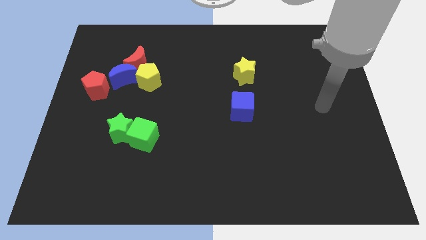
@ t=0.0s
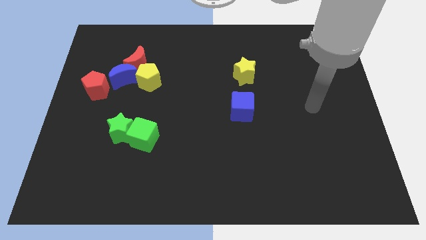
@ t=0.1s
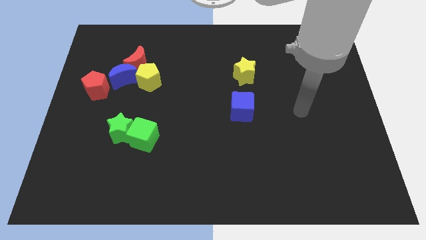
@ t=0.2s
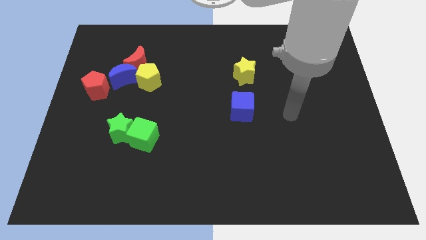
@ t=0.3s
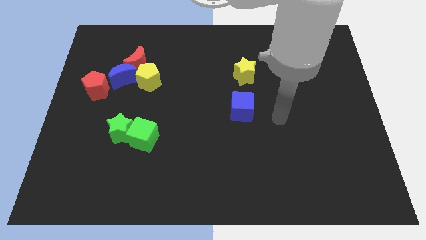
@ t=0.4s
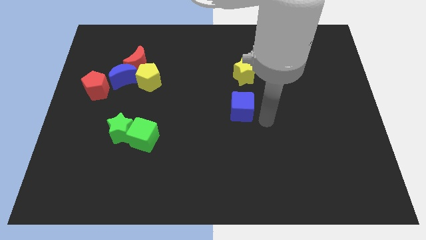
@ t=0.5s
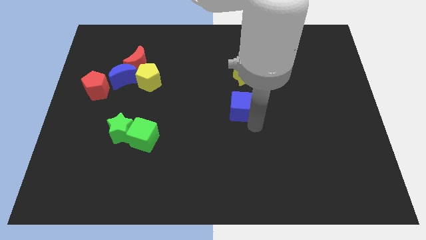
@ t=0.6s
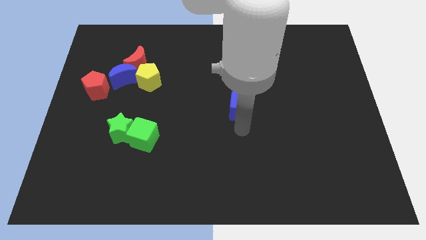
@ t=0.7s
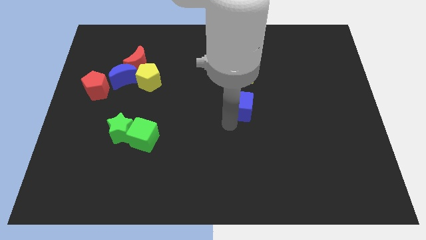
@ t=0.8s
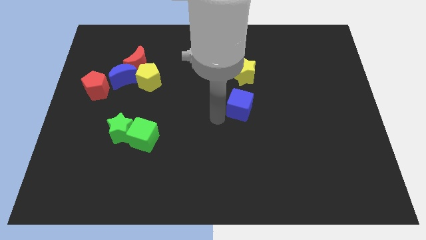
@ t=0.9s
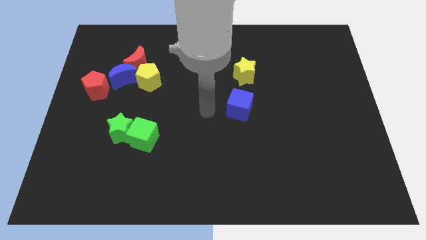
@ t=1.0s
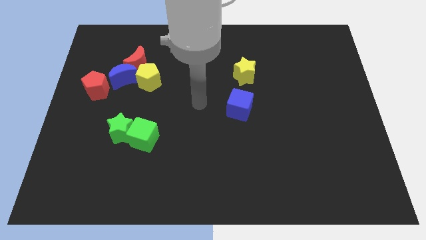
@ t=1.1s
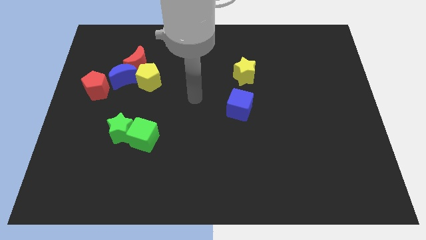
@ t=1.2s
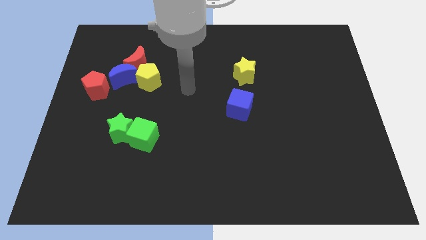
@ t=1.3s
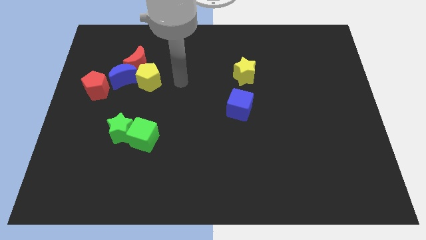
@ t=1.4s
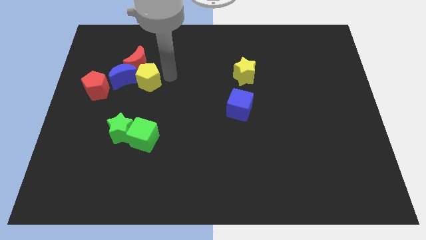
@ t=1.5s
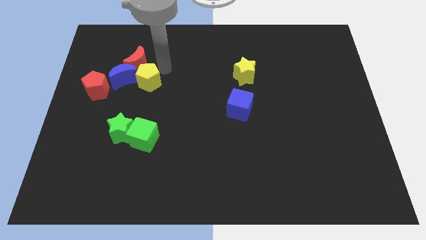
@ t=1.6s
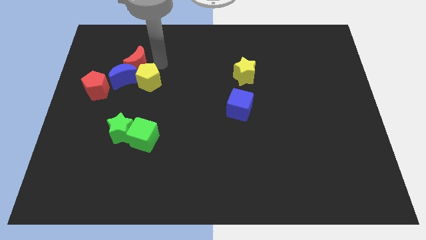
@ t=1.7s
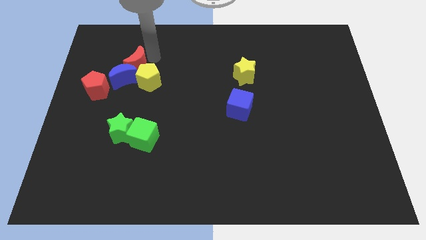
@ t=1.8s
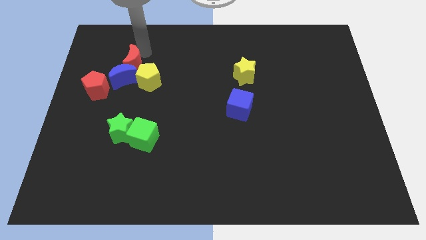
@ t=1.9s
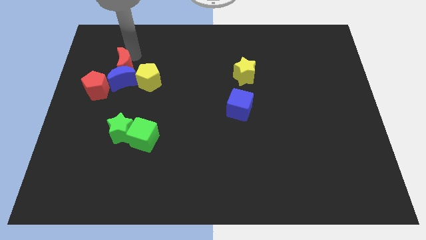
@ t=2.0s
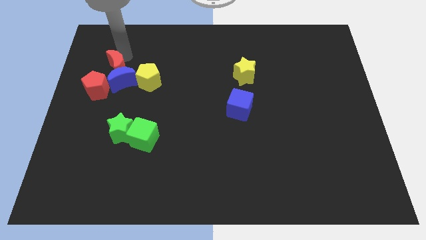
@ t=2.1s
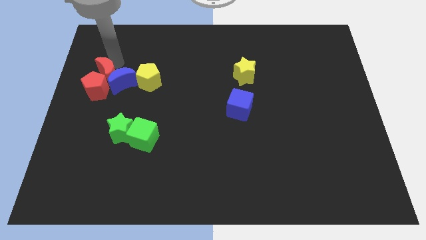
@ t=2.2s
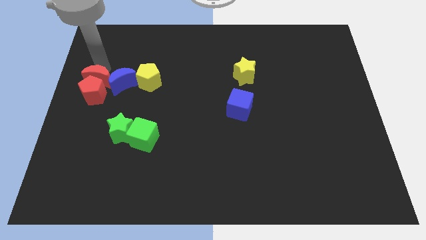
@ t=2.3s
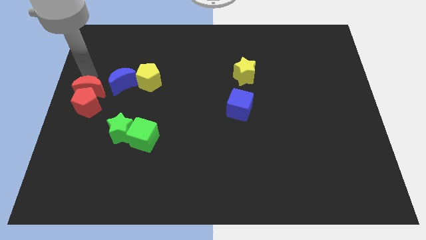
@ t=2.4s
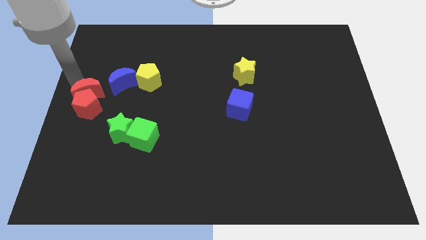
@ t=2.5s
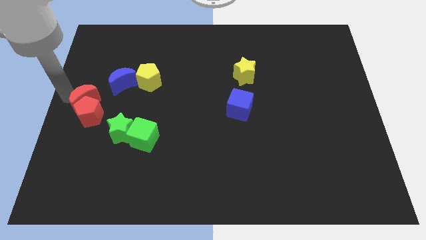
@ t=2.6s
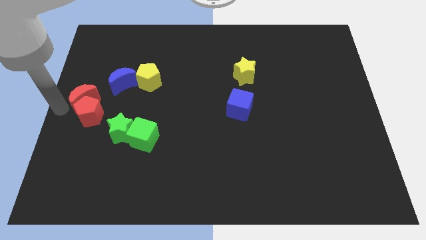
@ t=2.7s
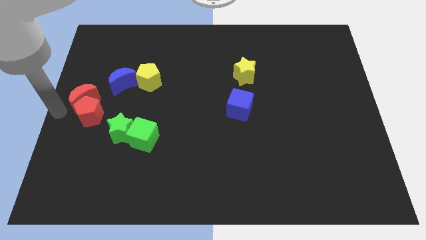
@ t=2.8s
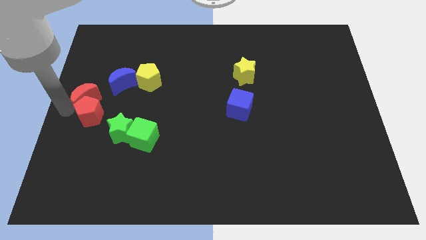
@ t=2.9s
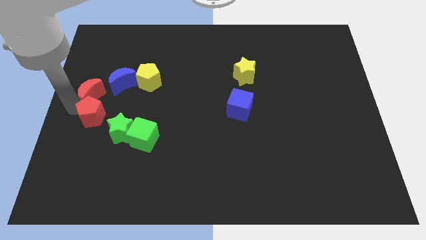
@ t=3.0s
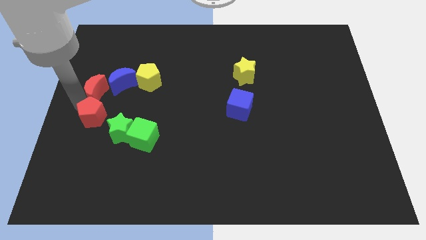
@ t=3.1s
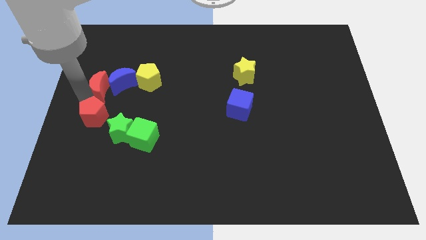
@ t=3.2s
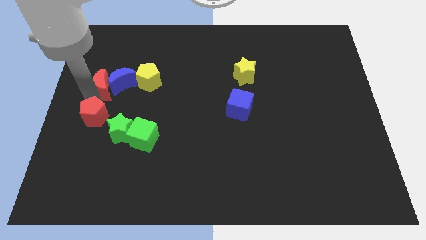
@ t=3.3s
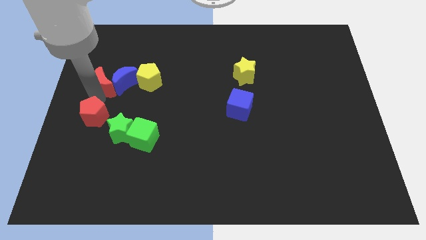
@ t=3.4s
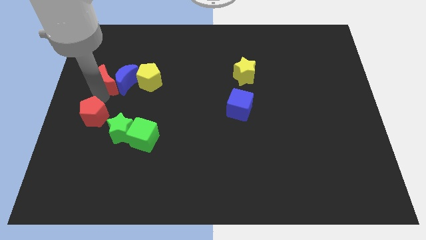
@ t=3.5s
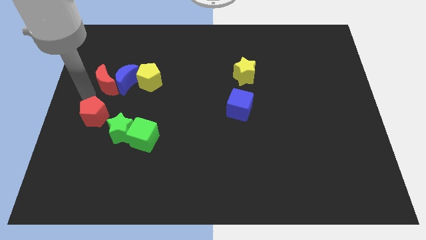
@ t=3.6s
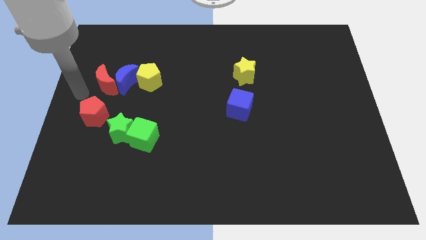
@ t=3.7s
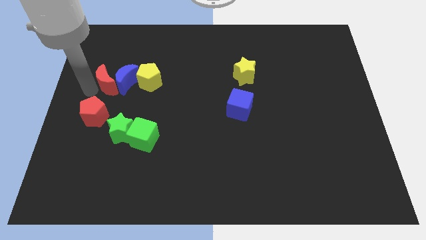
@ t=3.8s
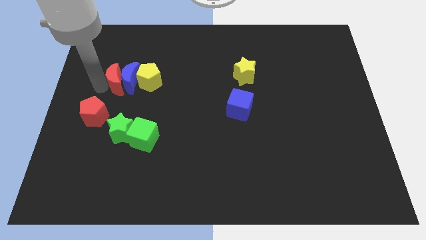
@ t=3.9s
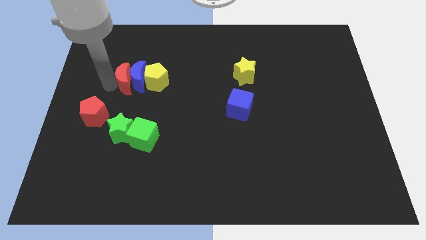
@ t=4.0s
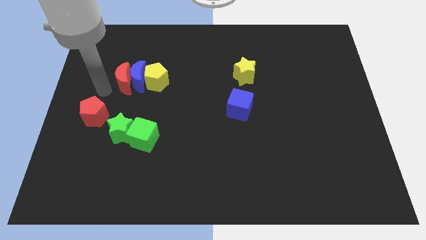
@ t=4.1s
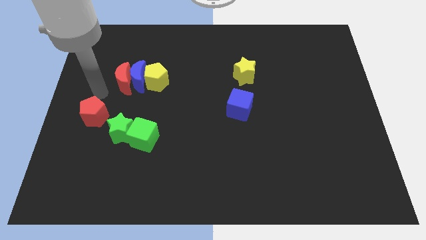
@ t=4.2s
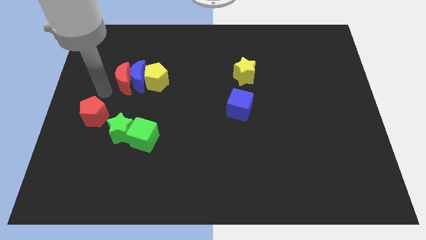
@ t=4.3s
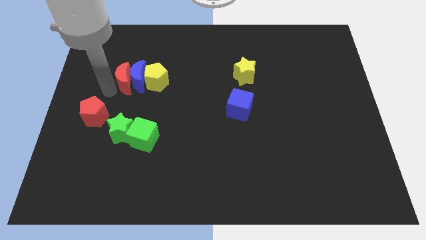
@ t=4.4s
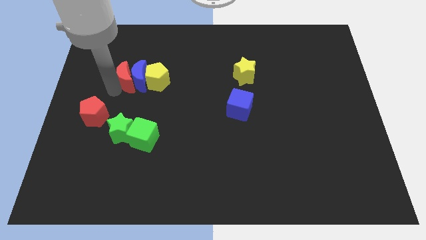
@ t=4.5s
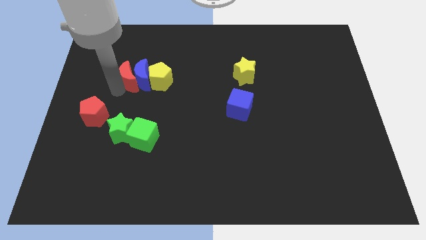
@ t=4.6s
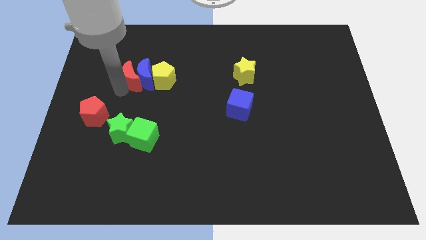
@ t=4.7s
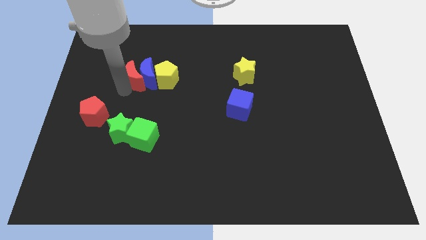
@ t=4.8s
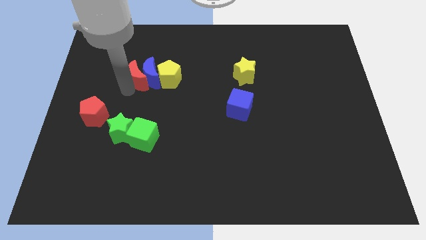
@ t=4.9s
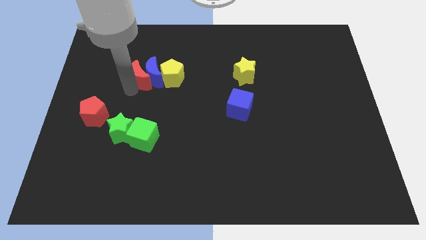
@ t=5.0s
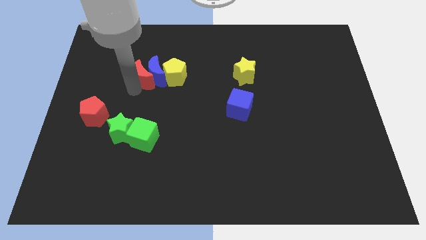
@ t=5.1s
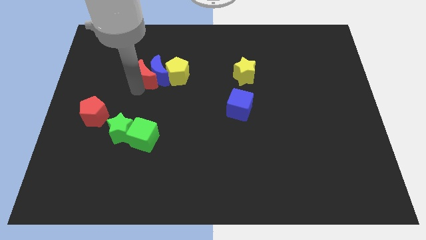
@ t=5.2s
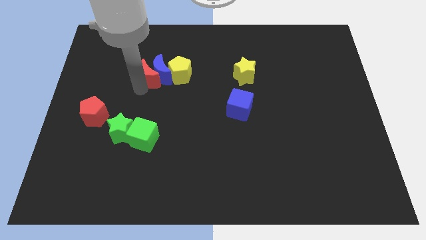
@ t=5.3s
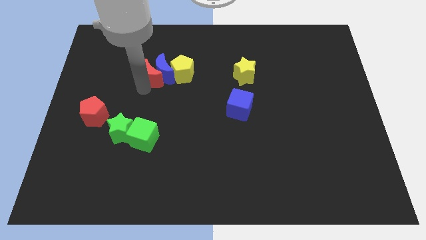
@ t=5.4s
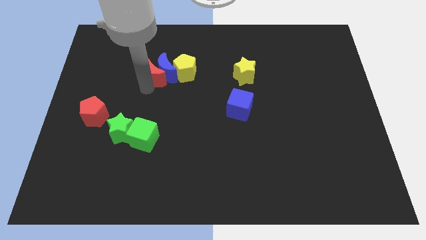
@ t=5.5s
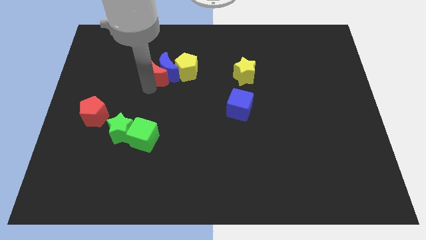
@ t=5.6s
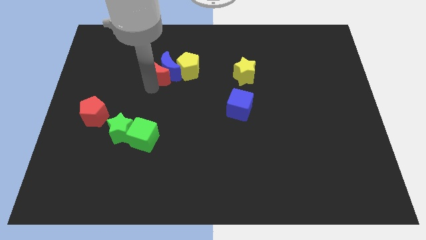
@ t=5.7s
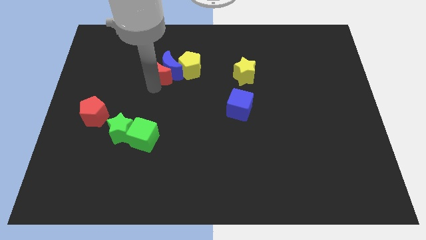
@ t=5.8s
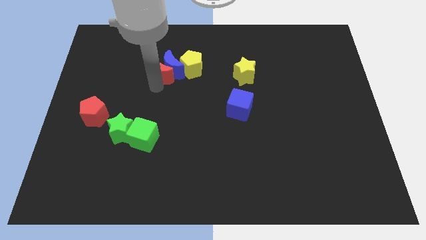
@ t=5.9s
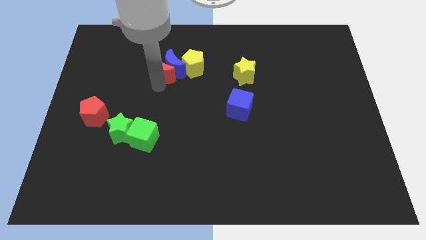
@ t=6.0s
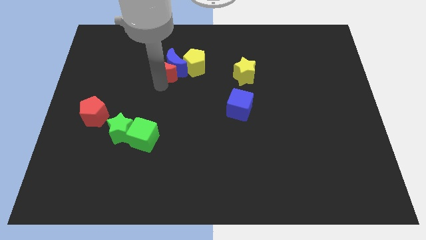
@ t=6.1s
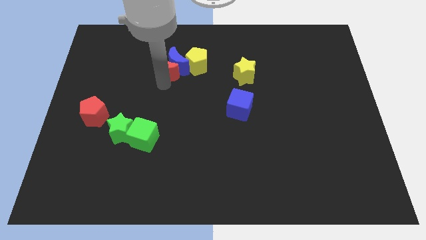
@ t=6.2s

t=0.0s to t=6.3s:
slide the red moon right a little bit

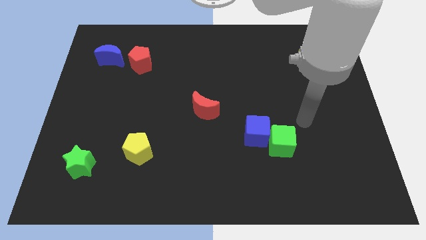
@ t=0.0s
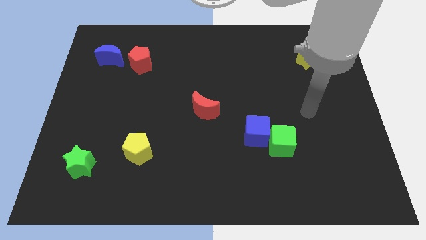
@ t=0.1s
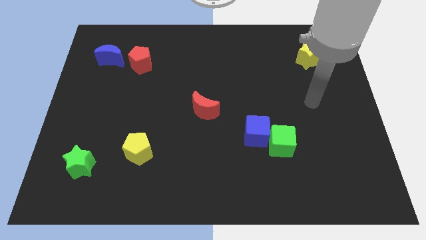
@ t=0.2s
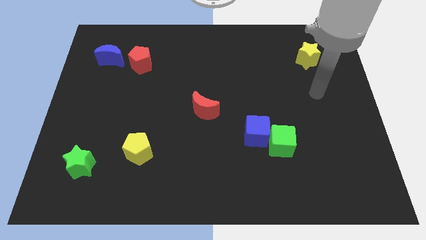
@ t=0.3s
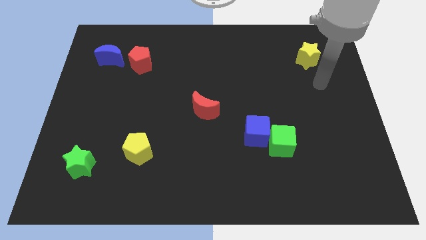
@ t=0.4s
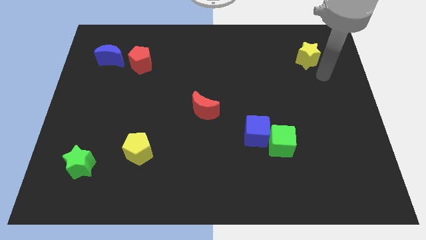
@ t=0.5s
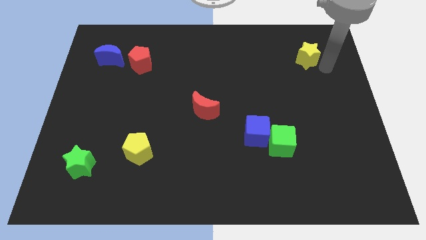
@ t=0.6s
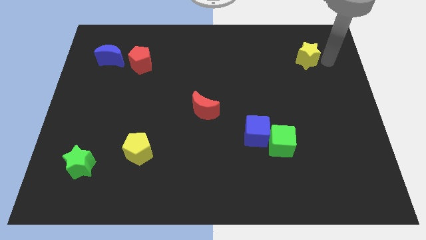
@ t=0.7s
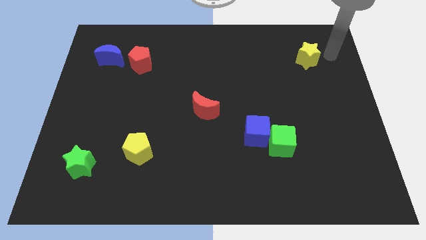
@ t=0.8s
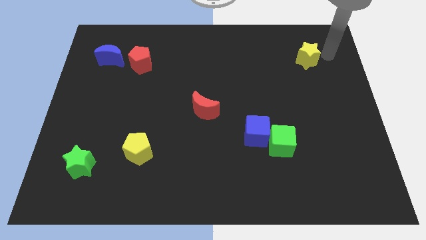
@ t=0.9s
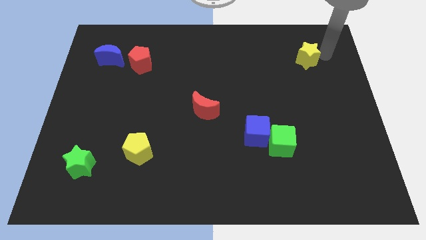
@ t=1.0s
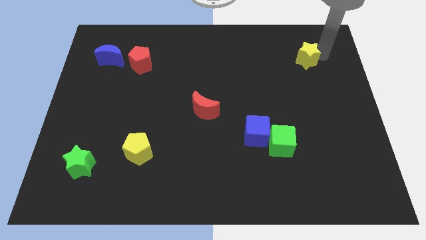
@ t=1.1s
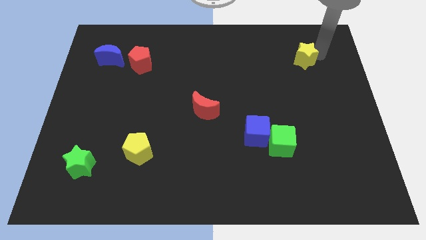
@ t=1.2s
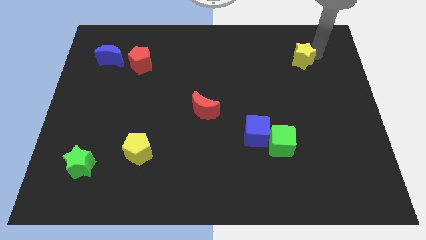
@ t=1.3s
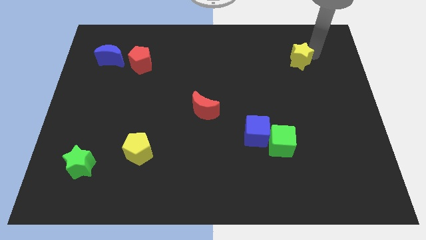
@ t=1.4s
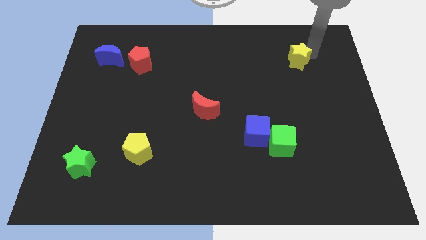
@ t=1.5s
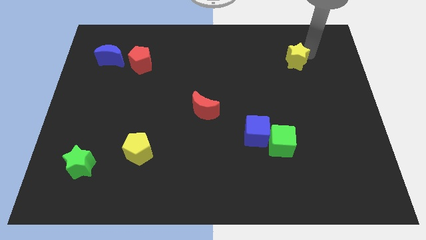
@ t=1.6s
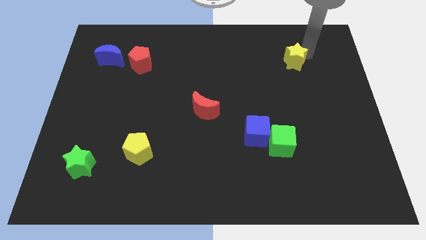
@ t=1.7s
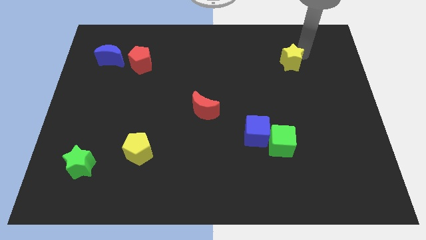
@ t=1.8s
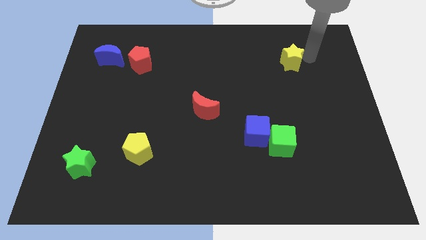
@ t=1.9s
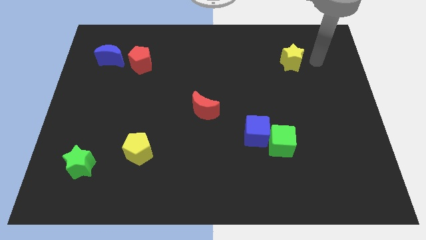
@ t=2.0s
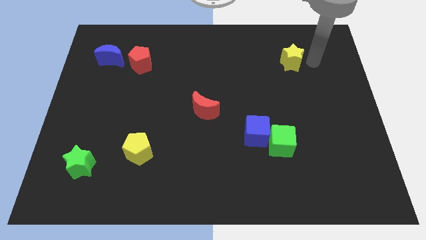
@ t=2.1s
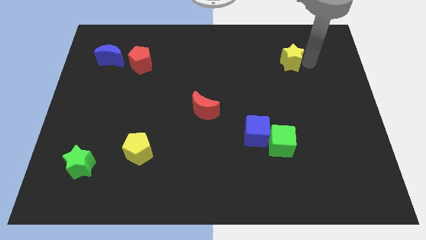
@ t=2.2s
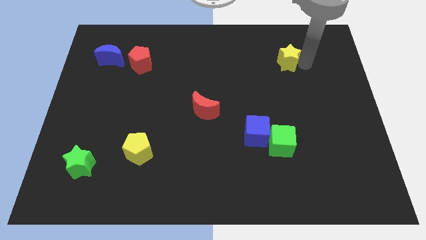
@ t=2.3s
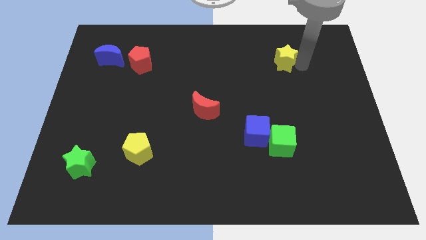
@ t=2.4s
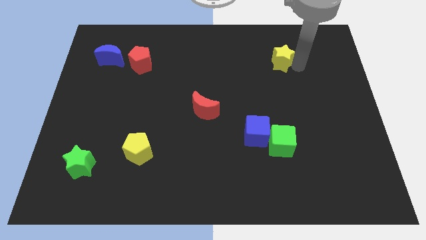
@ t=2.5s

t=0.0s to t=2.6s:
slide the yellow star left a bit
